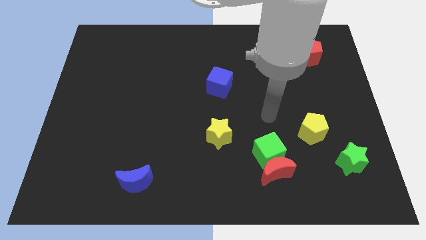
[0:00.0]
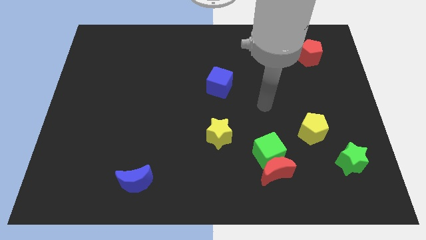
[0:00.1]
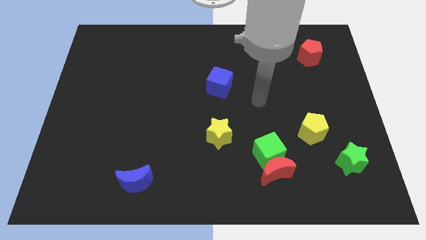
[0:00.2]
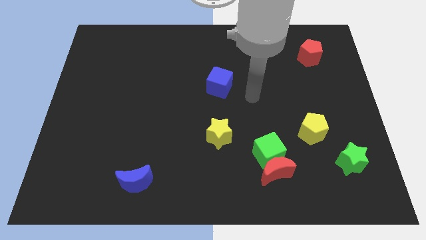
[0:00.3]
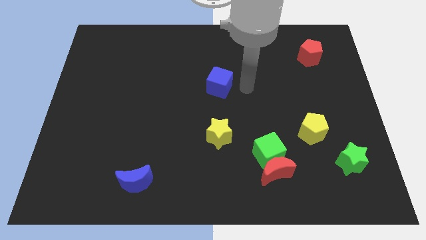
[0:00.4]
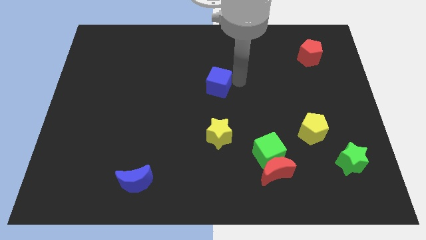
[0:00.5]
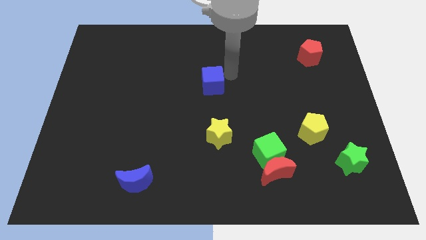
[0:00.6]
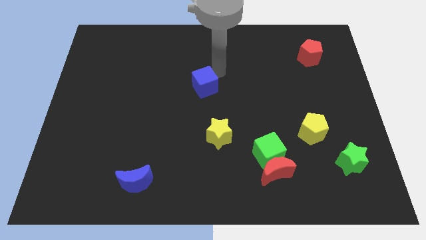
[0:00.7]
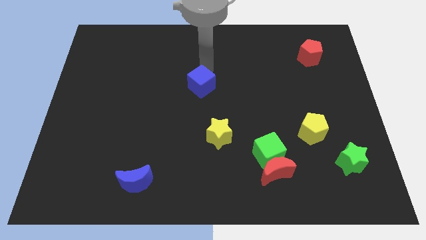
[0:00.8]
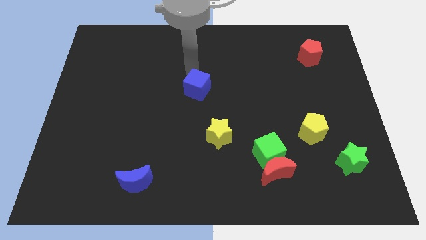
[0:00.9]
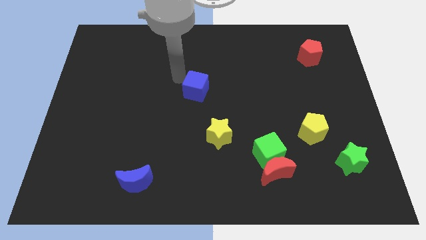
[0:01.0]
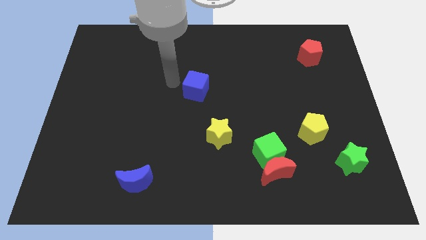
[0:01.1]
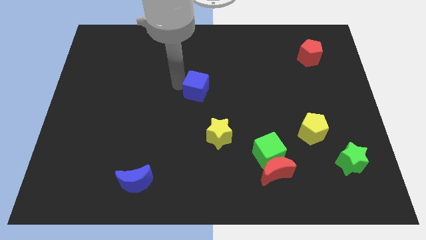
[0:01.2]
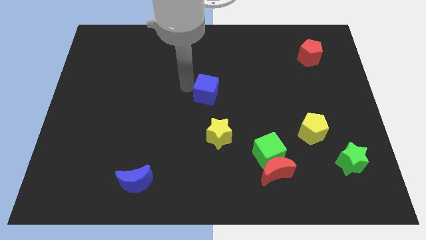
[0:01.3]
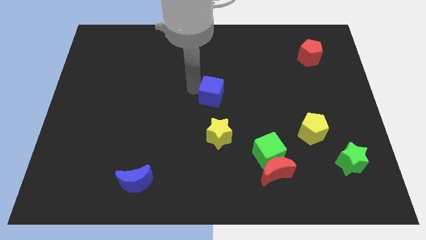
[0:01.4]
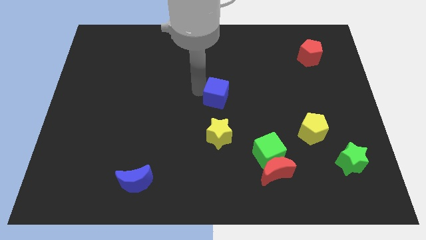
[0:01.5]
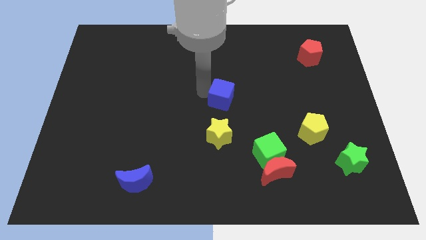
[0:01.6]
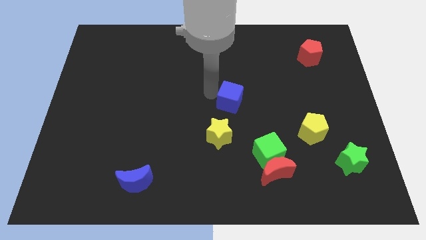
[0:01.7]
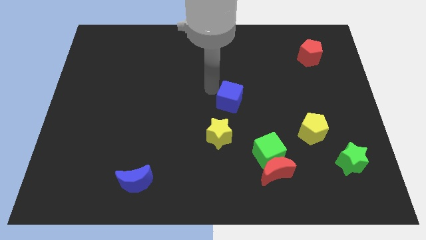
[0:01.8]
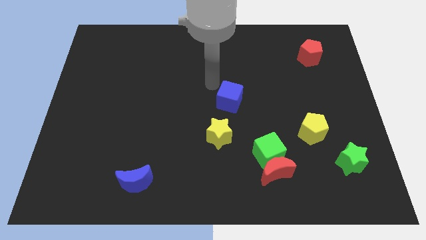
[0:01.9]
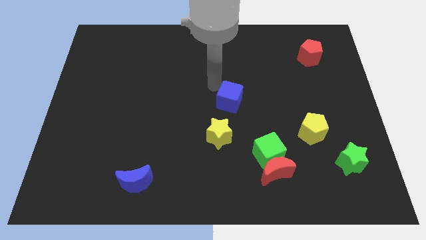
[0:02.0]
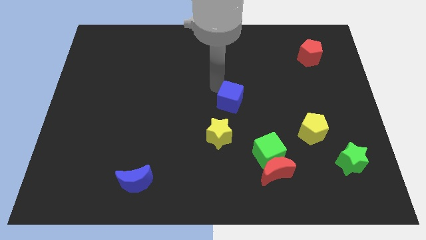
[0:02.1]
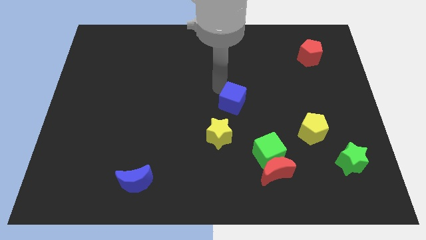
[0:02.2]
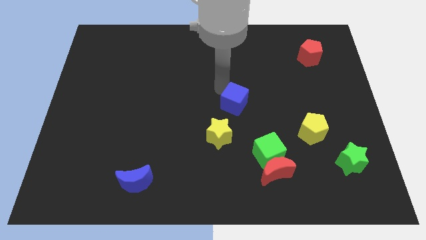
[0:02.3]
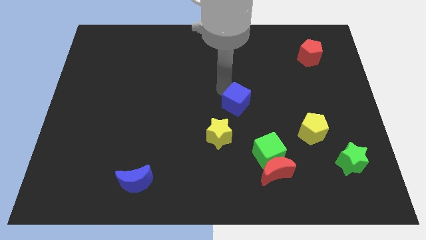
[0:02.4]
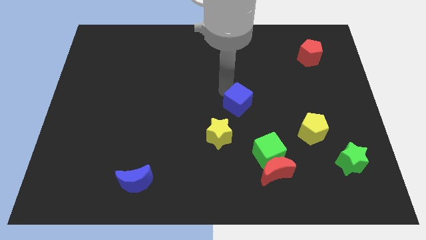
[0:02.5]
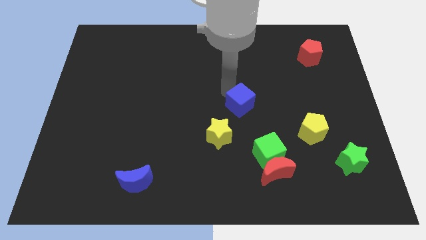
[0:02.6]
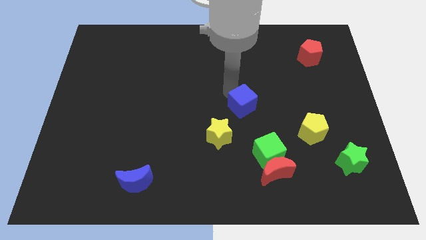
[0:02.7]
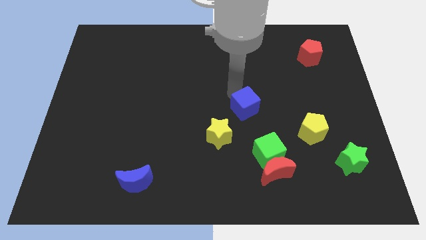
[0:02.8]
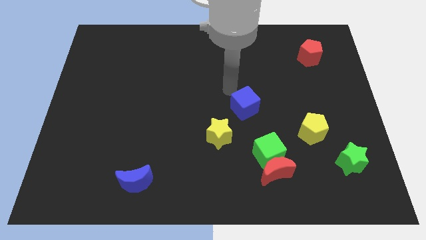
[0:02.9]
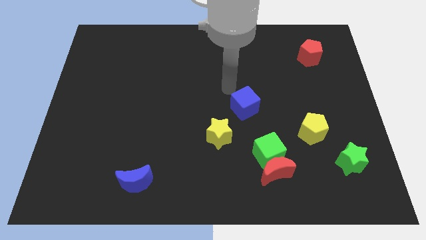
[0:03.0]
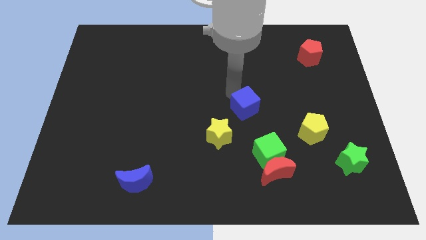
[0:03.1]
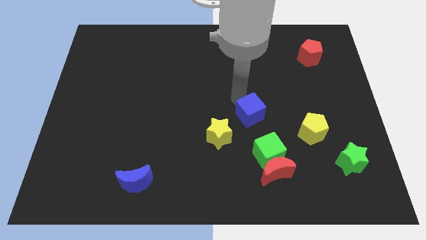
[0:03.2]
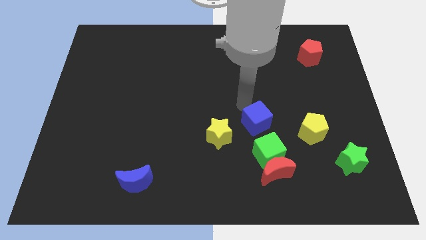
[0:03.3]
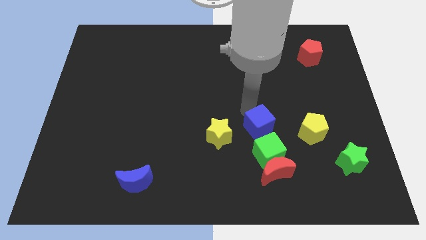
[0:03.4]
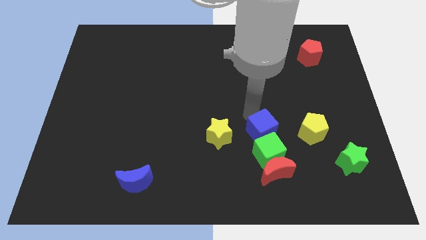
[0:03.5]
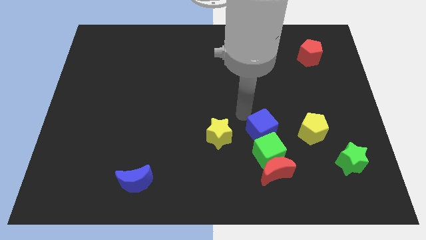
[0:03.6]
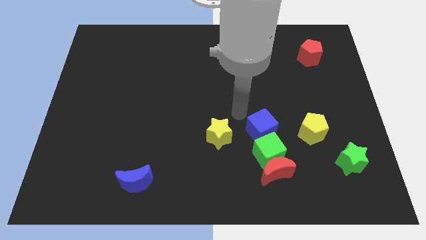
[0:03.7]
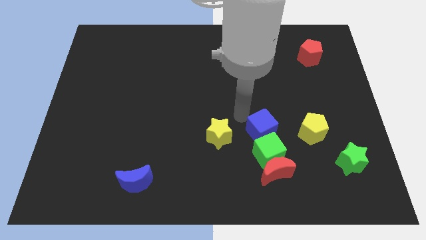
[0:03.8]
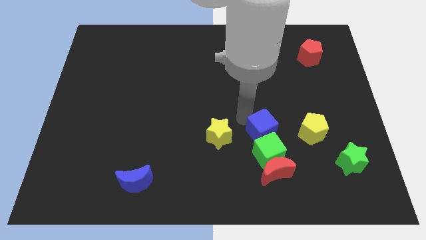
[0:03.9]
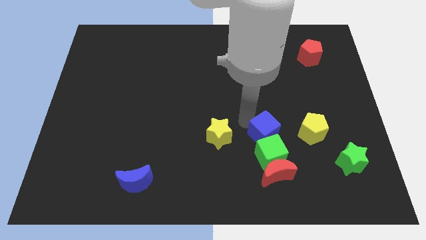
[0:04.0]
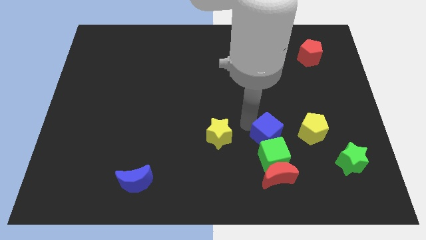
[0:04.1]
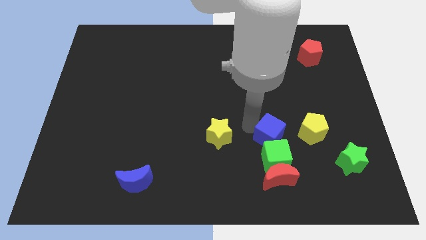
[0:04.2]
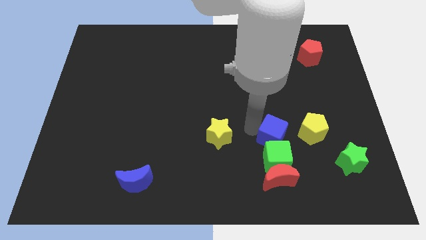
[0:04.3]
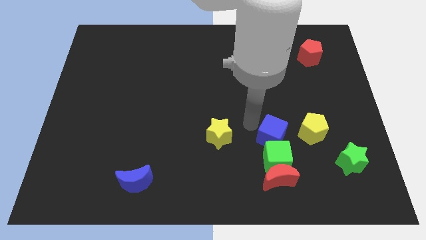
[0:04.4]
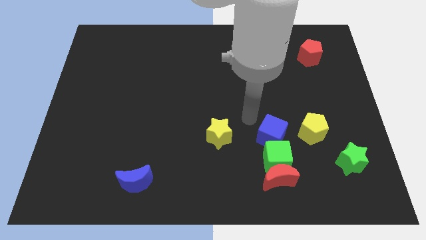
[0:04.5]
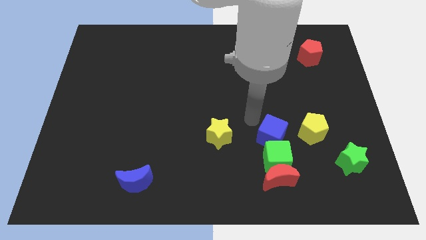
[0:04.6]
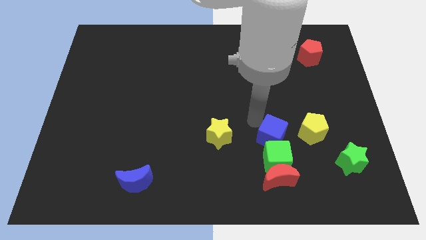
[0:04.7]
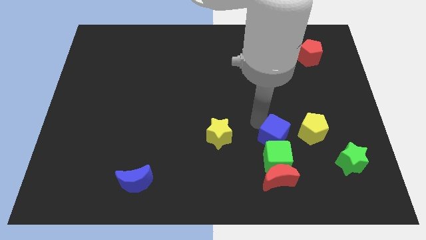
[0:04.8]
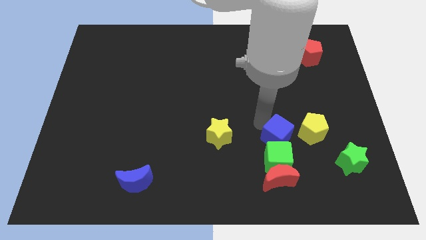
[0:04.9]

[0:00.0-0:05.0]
push the blue cube to the bottom left side of the yellow pentagon

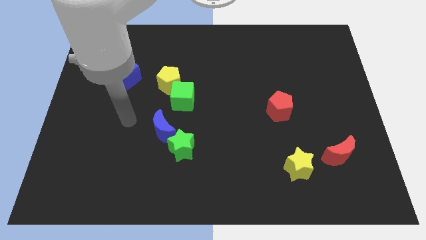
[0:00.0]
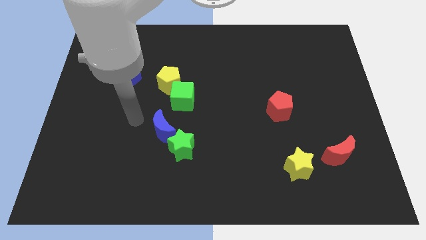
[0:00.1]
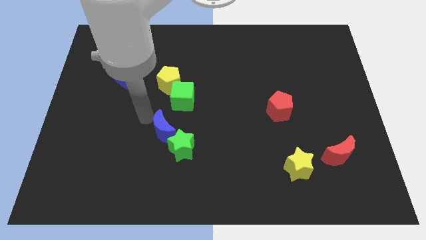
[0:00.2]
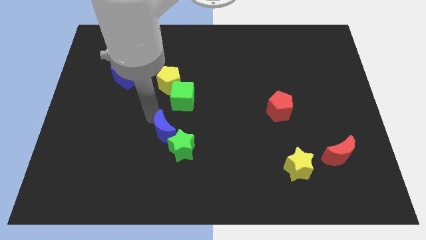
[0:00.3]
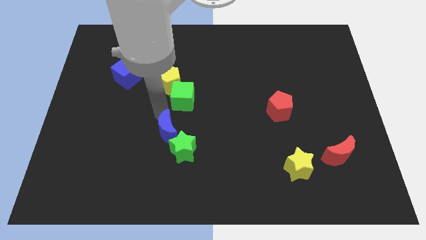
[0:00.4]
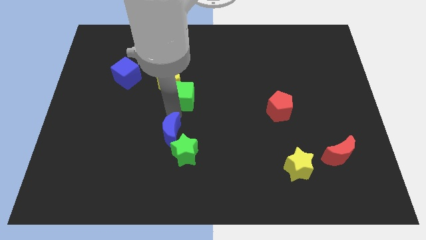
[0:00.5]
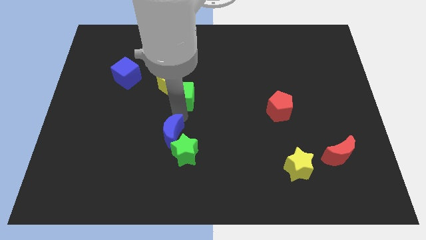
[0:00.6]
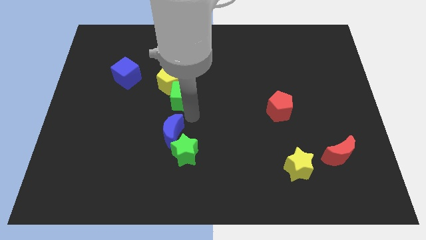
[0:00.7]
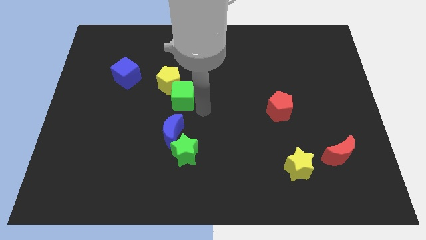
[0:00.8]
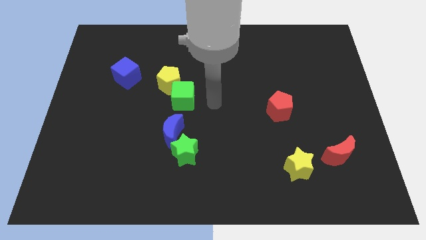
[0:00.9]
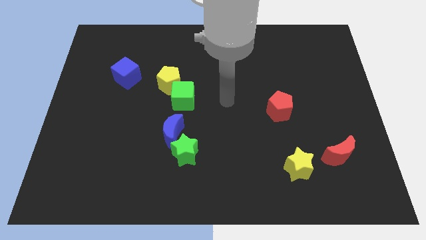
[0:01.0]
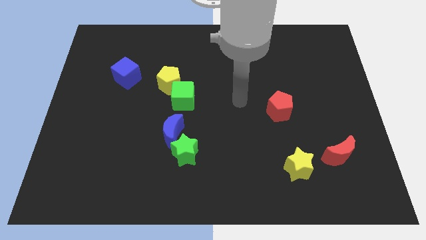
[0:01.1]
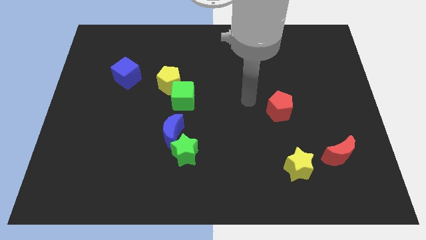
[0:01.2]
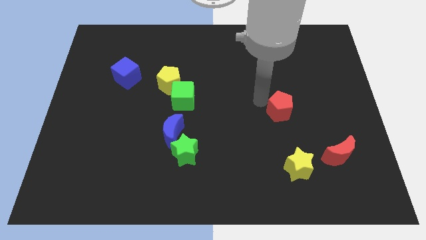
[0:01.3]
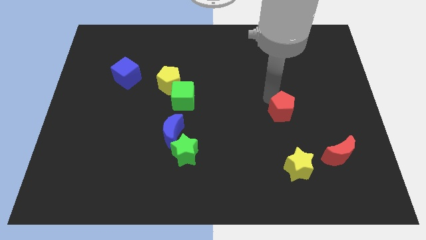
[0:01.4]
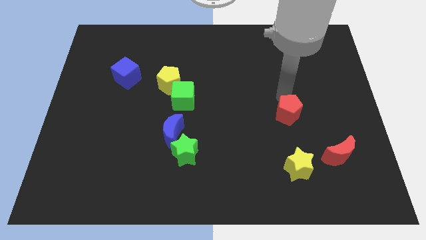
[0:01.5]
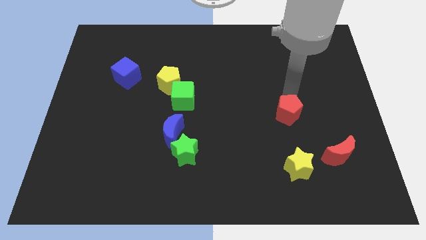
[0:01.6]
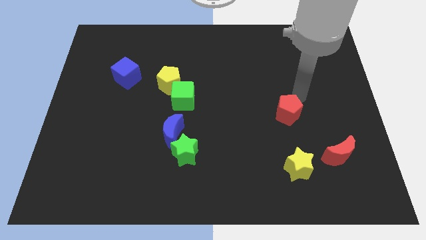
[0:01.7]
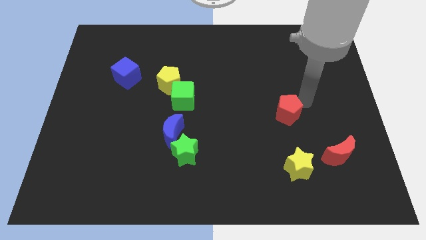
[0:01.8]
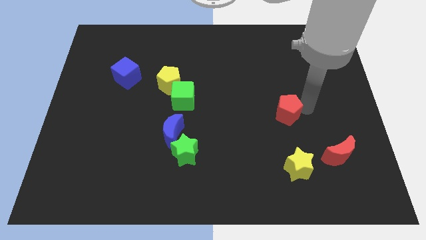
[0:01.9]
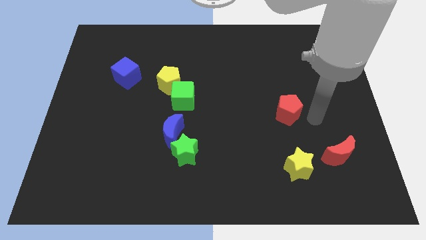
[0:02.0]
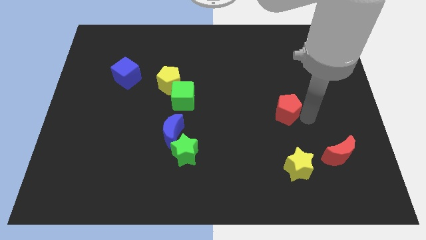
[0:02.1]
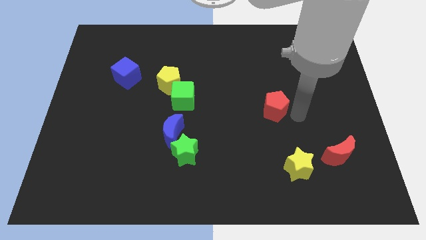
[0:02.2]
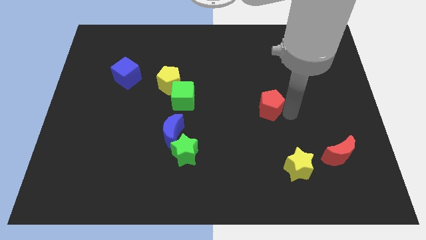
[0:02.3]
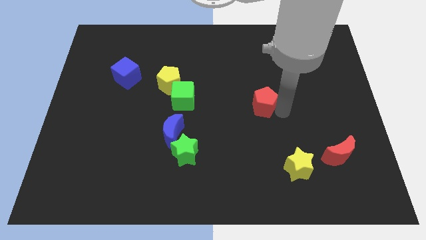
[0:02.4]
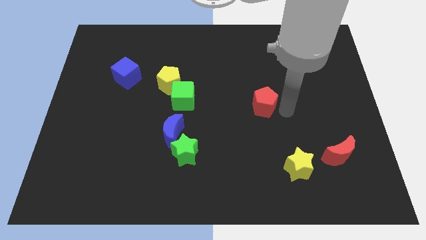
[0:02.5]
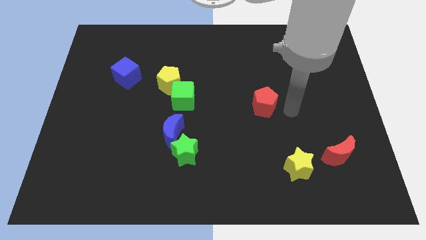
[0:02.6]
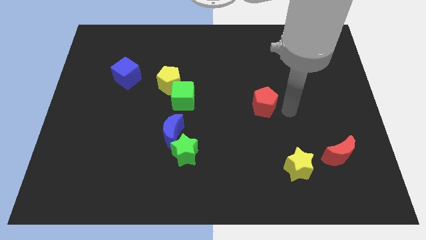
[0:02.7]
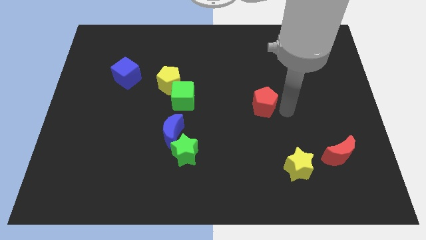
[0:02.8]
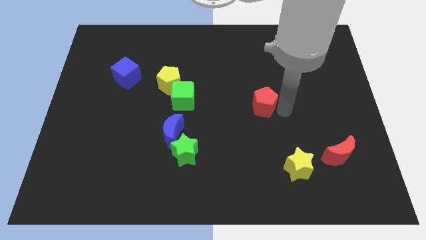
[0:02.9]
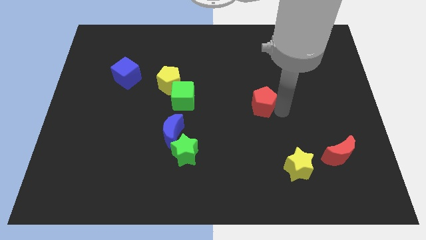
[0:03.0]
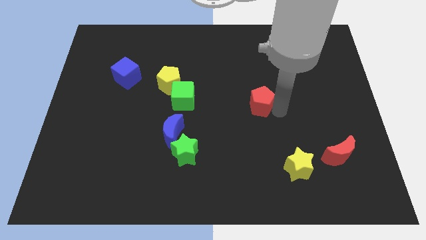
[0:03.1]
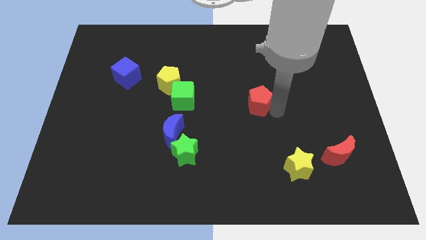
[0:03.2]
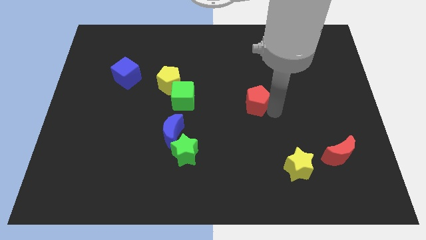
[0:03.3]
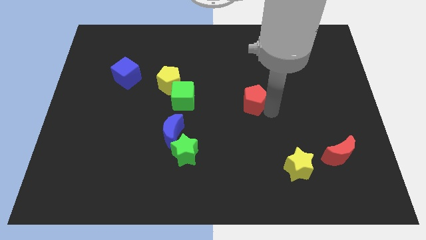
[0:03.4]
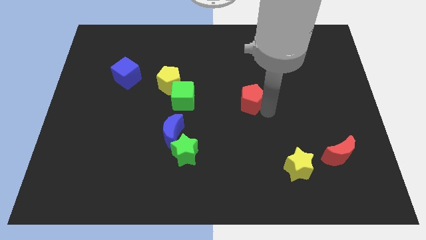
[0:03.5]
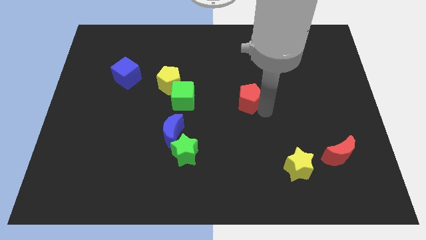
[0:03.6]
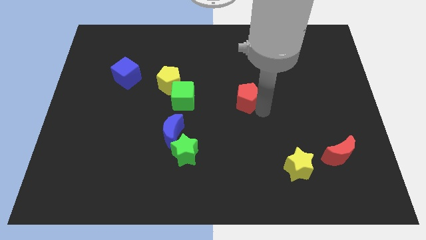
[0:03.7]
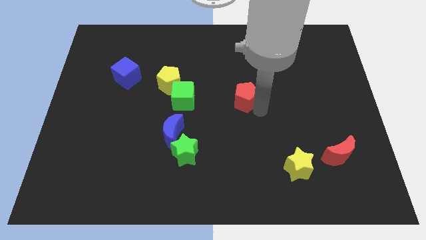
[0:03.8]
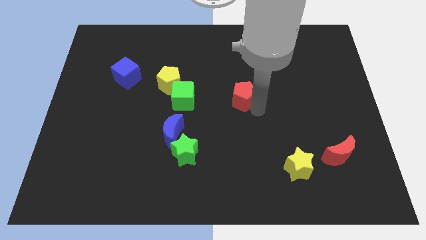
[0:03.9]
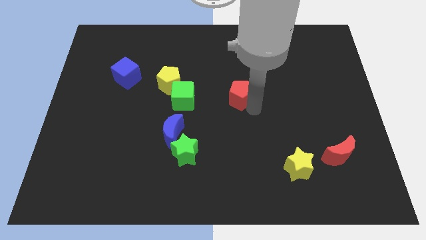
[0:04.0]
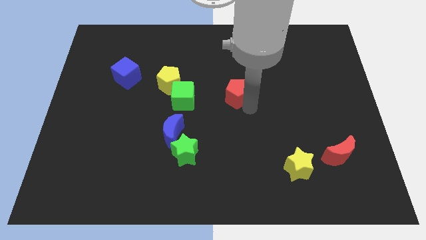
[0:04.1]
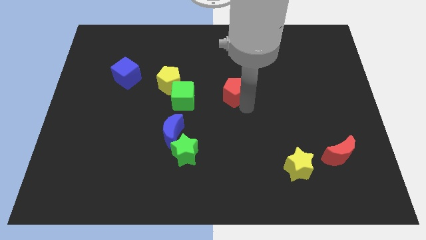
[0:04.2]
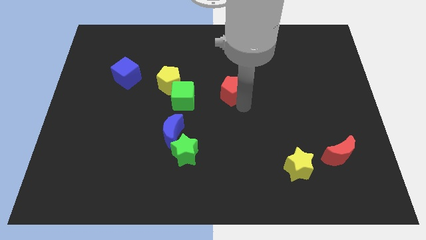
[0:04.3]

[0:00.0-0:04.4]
slide the red pentagon right of the yellow pentagon
